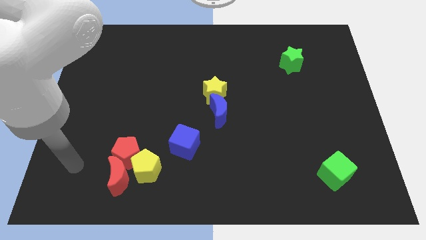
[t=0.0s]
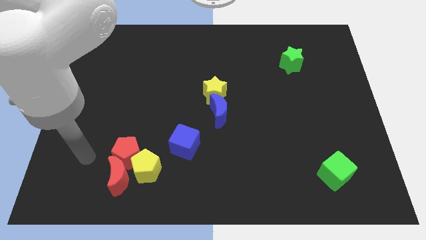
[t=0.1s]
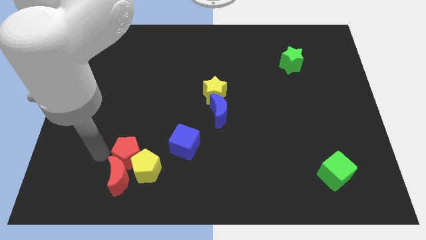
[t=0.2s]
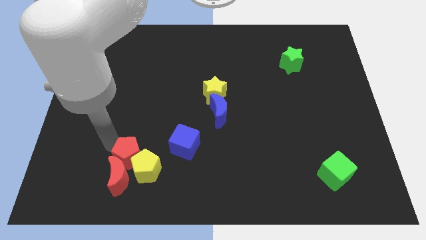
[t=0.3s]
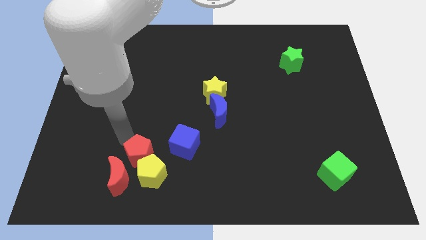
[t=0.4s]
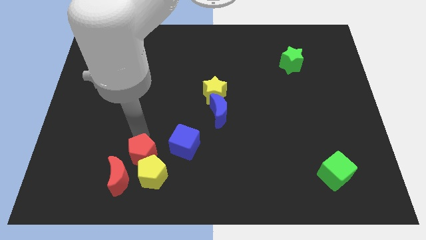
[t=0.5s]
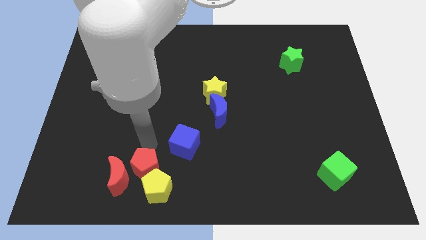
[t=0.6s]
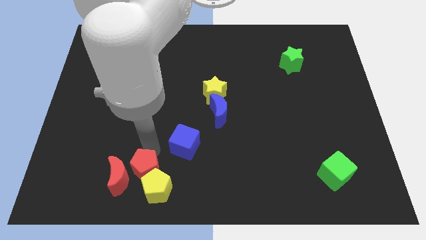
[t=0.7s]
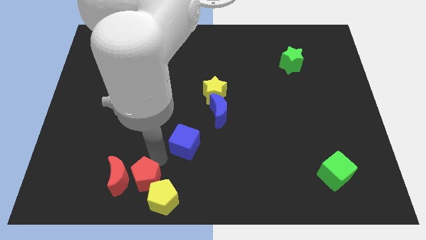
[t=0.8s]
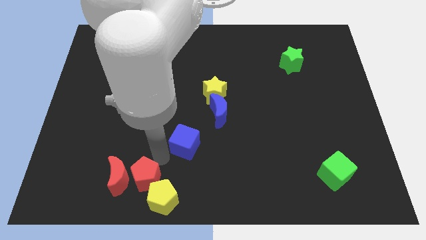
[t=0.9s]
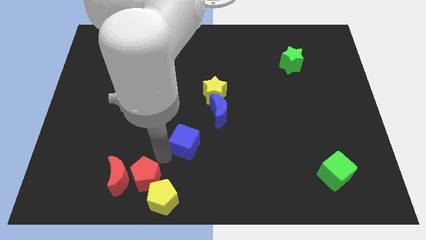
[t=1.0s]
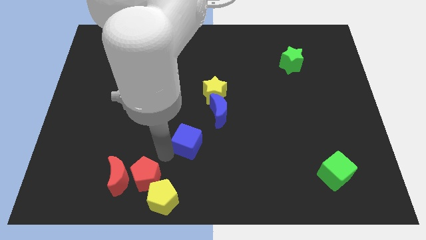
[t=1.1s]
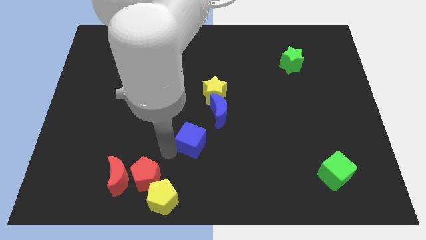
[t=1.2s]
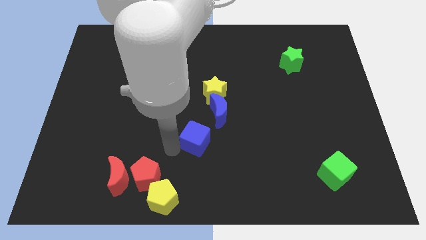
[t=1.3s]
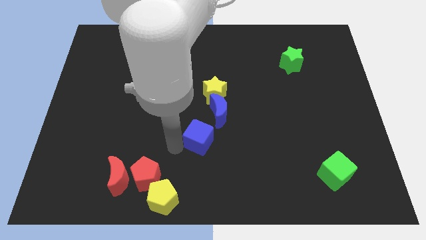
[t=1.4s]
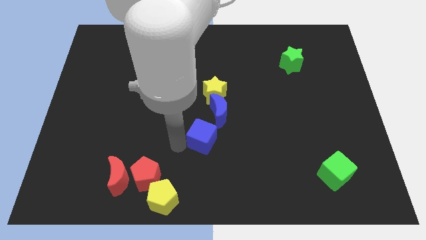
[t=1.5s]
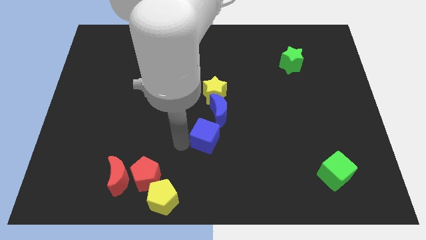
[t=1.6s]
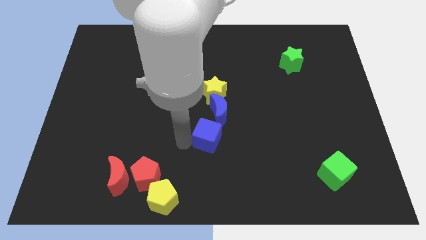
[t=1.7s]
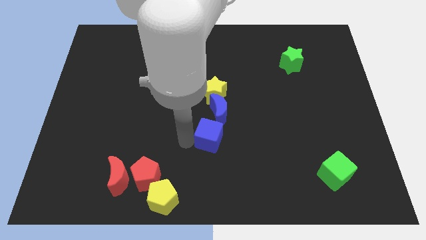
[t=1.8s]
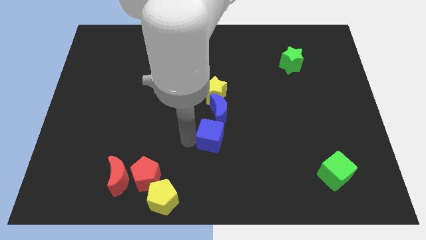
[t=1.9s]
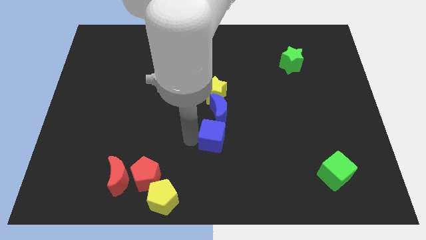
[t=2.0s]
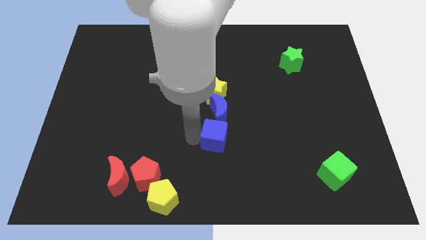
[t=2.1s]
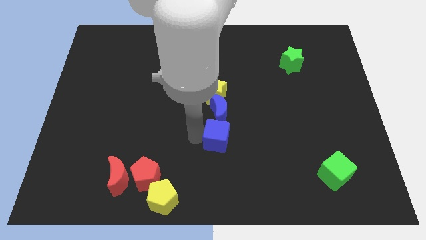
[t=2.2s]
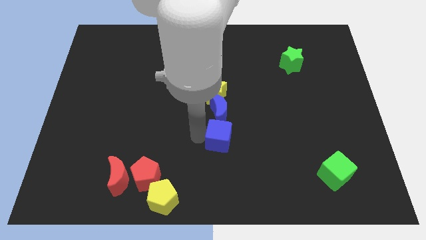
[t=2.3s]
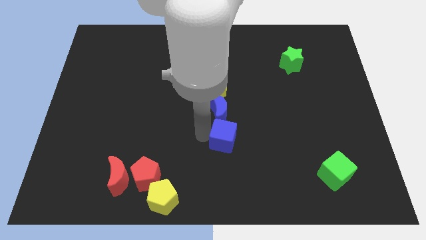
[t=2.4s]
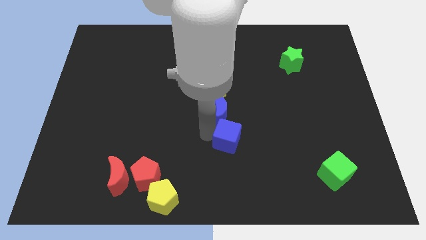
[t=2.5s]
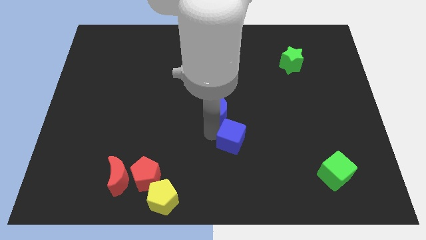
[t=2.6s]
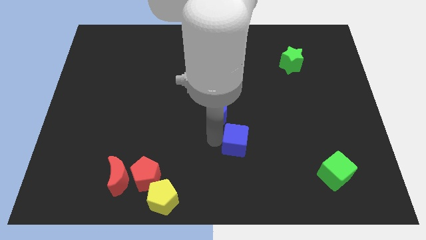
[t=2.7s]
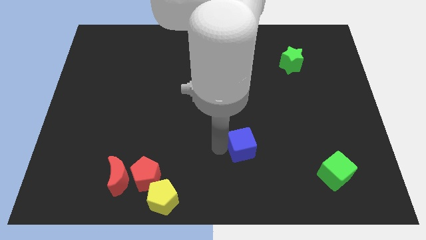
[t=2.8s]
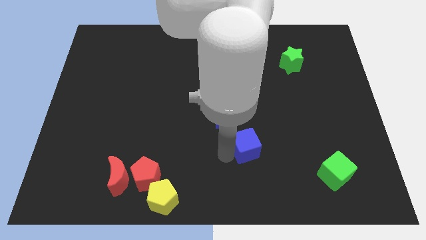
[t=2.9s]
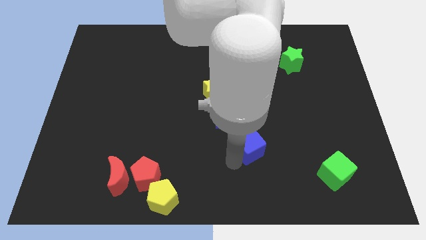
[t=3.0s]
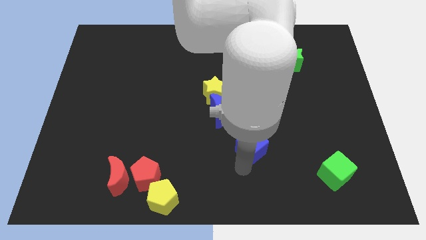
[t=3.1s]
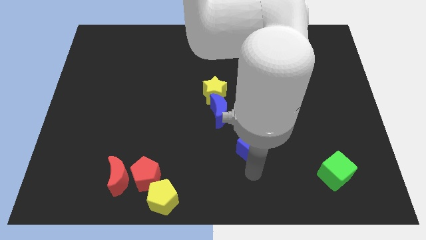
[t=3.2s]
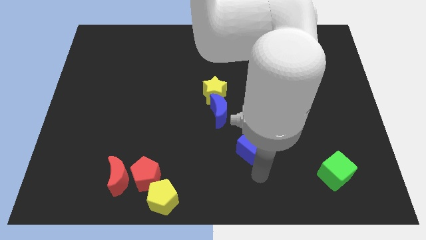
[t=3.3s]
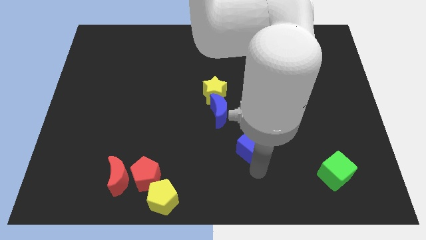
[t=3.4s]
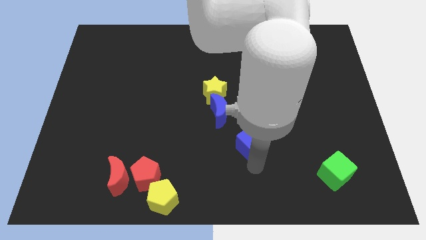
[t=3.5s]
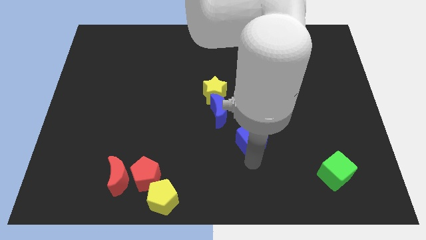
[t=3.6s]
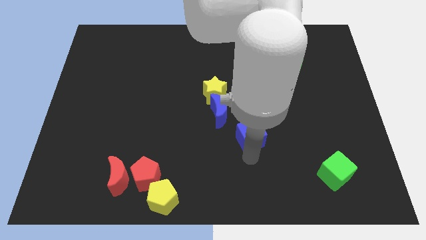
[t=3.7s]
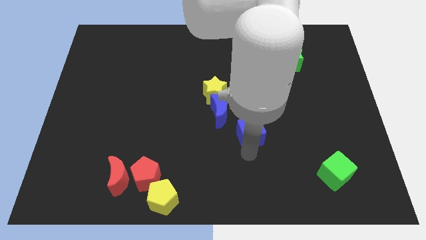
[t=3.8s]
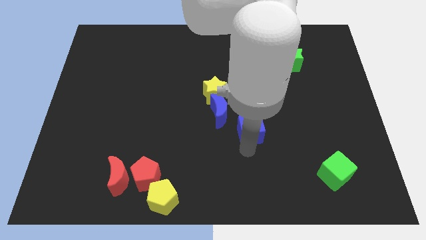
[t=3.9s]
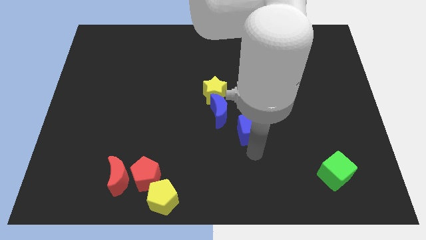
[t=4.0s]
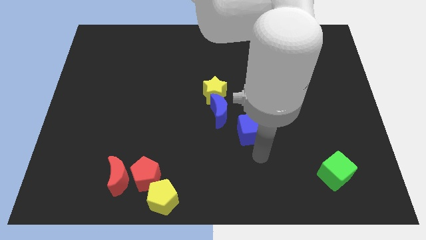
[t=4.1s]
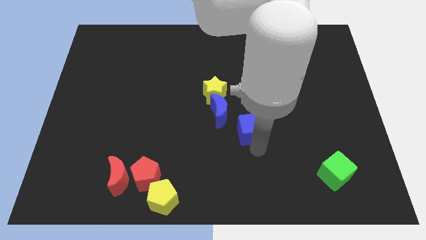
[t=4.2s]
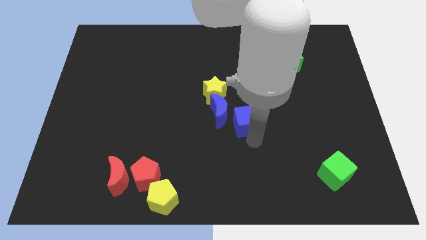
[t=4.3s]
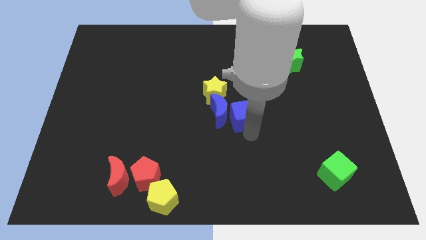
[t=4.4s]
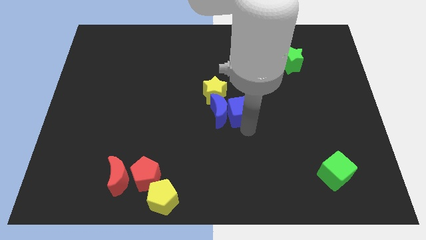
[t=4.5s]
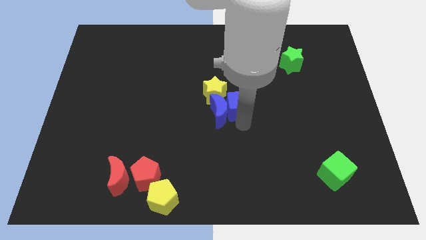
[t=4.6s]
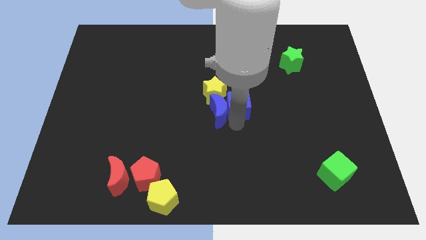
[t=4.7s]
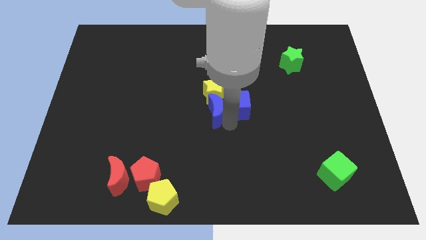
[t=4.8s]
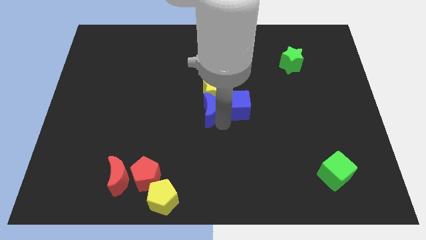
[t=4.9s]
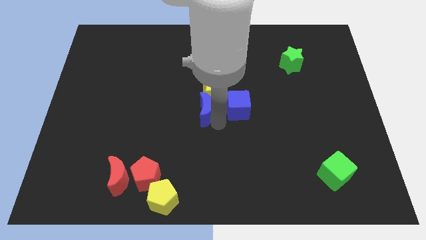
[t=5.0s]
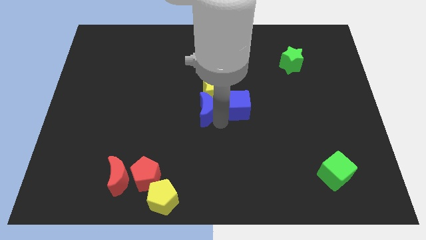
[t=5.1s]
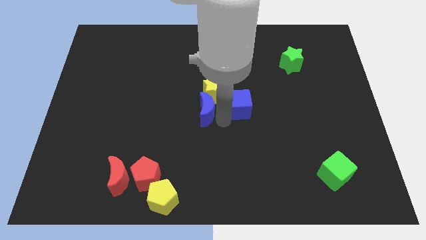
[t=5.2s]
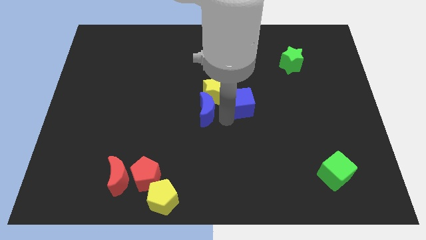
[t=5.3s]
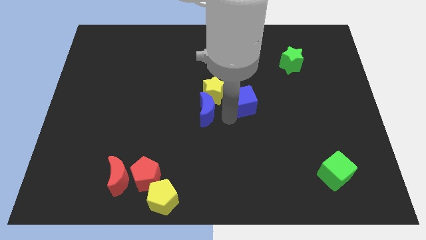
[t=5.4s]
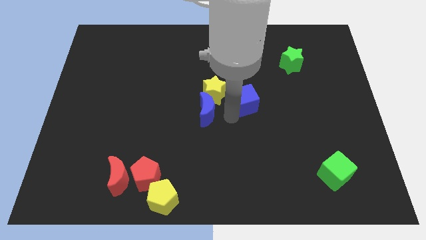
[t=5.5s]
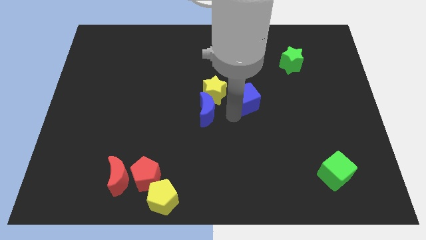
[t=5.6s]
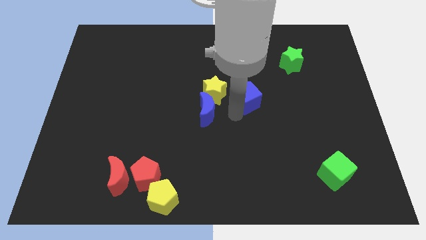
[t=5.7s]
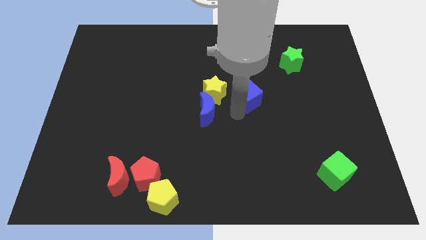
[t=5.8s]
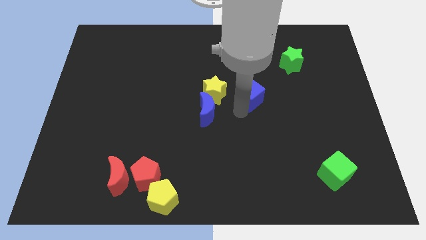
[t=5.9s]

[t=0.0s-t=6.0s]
move the blue cube upwards and right diagonally

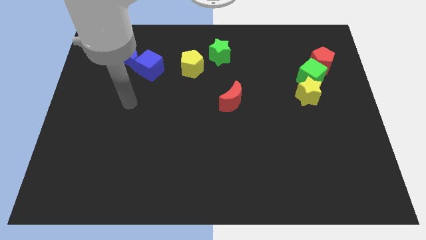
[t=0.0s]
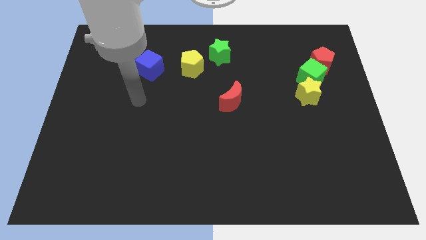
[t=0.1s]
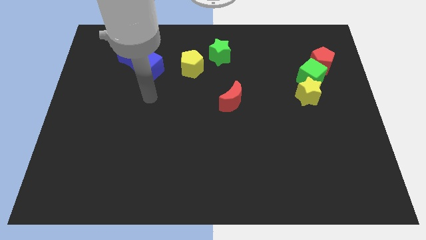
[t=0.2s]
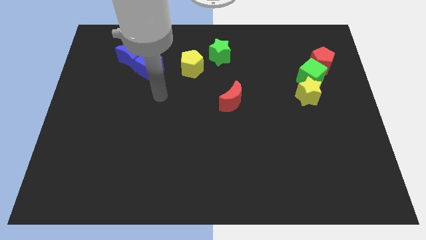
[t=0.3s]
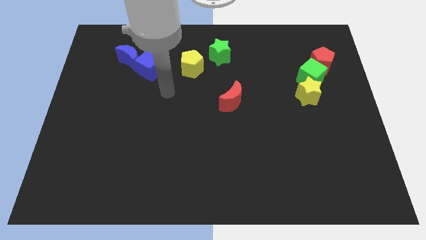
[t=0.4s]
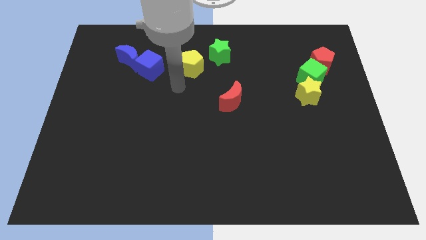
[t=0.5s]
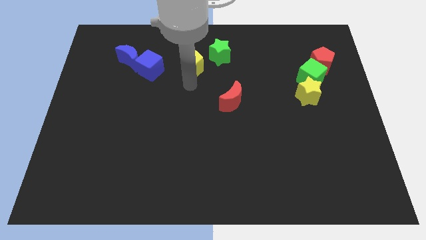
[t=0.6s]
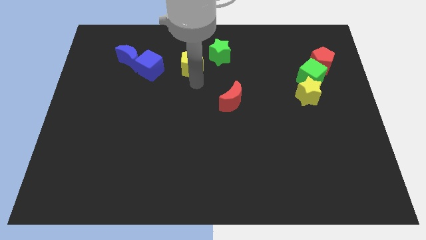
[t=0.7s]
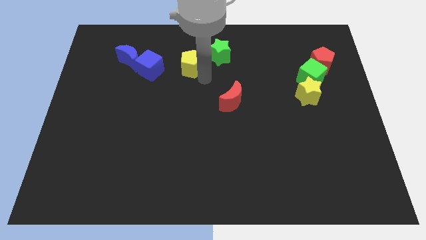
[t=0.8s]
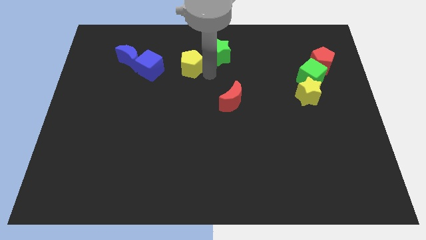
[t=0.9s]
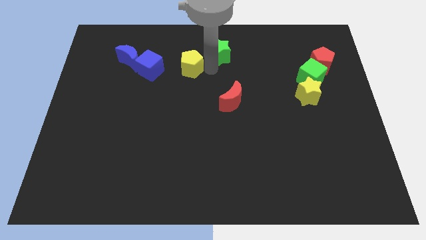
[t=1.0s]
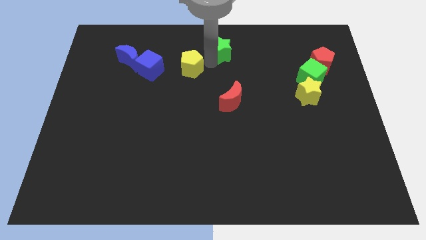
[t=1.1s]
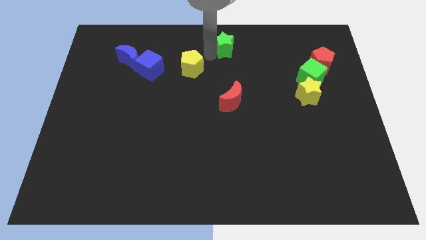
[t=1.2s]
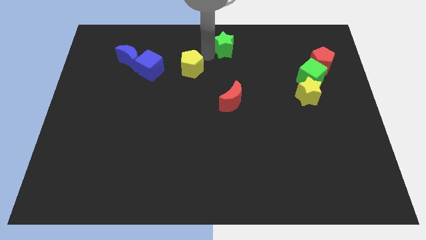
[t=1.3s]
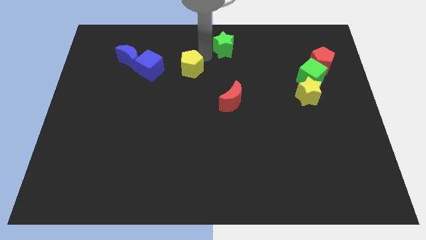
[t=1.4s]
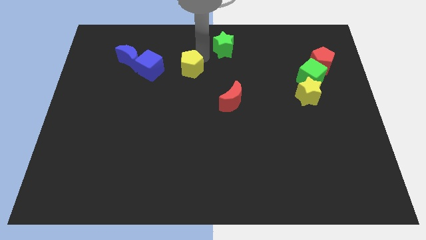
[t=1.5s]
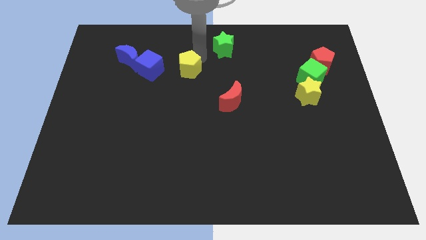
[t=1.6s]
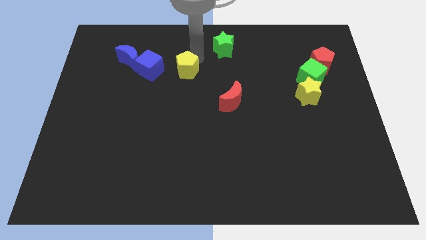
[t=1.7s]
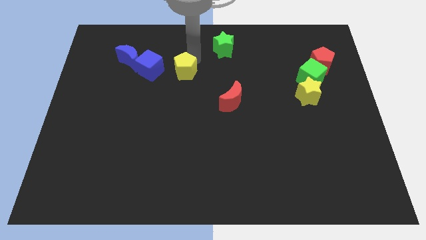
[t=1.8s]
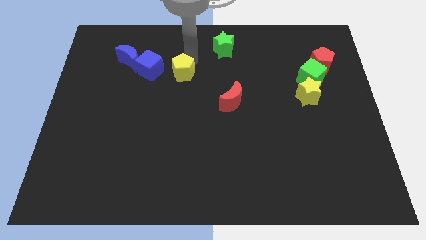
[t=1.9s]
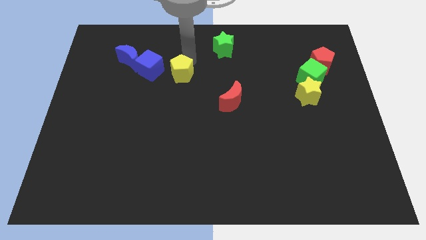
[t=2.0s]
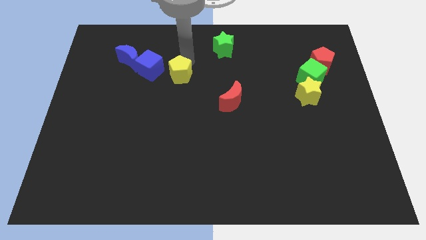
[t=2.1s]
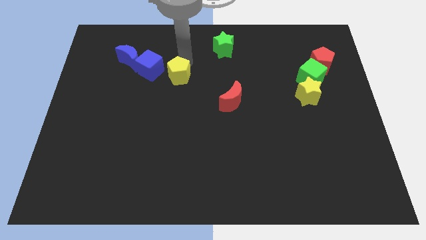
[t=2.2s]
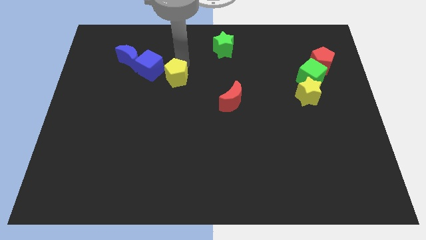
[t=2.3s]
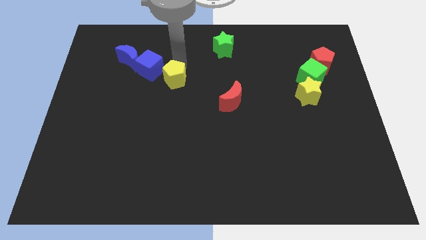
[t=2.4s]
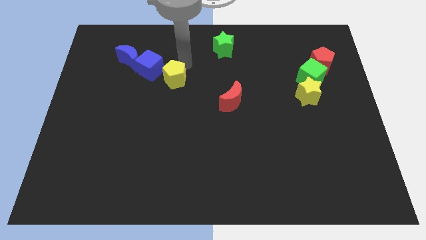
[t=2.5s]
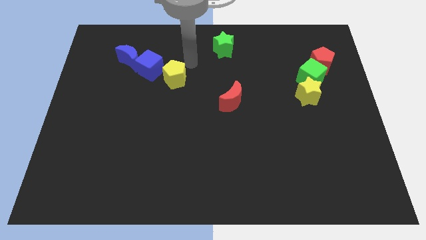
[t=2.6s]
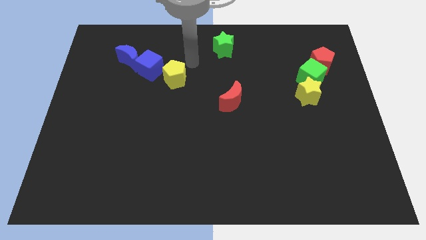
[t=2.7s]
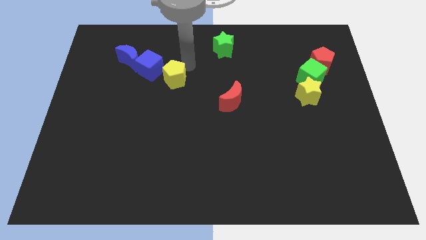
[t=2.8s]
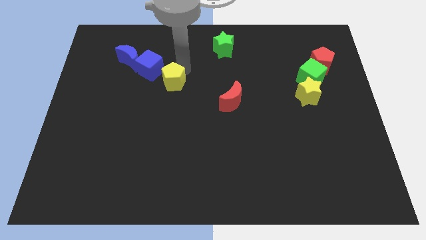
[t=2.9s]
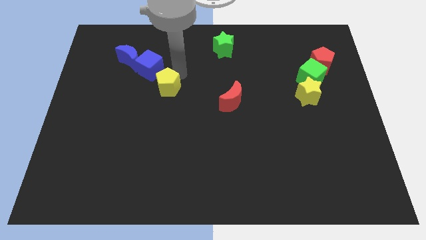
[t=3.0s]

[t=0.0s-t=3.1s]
slide the yellow pentagon slightly downwards and left
